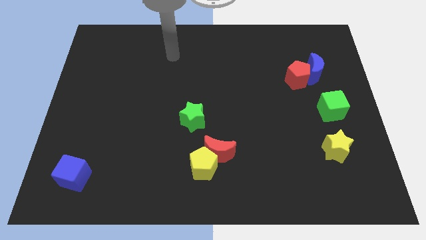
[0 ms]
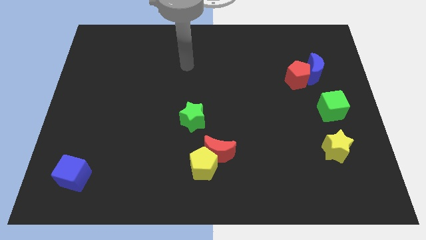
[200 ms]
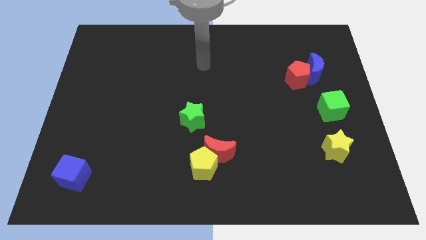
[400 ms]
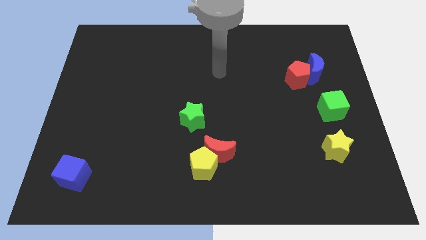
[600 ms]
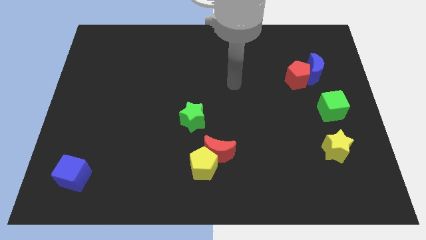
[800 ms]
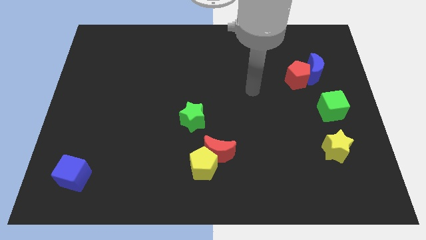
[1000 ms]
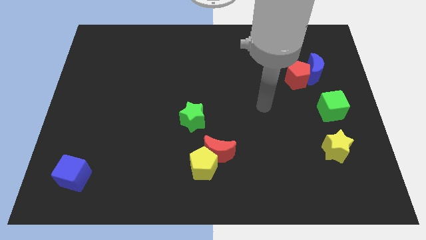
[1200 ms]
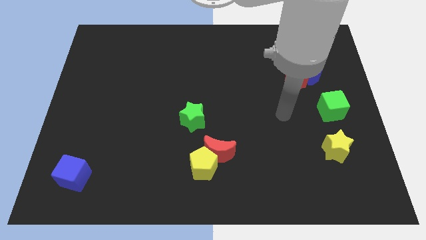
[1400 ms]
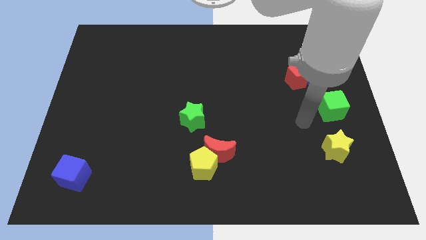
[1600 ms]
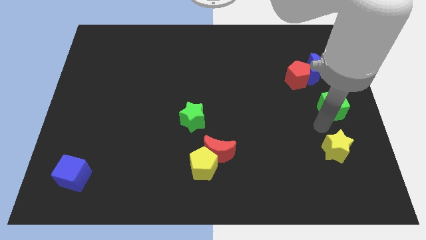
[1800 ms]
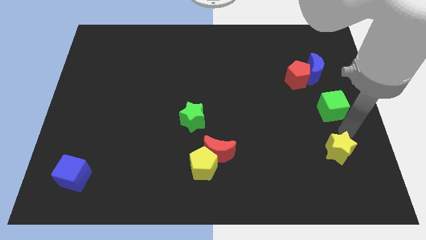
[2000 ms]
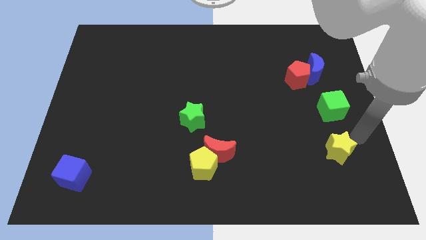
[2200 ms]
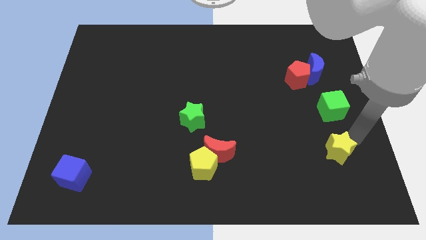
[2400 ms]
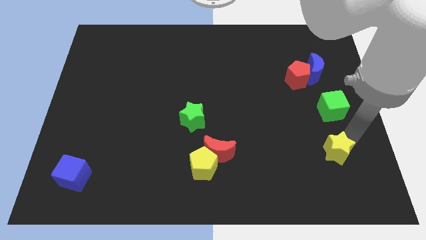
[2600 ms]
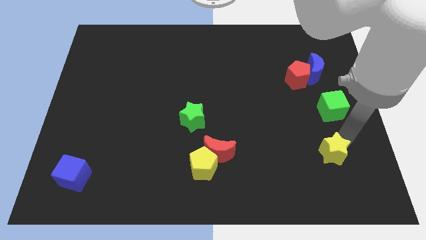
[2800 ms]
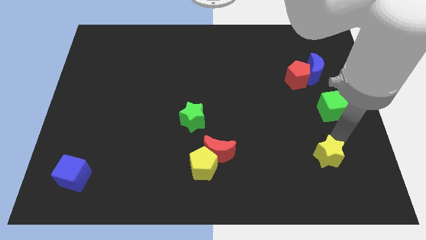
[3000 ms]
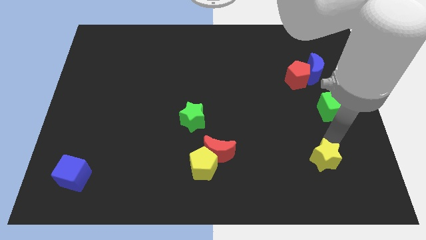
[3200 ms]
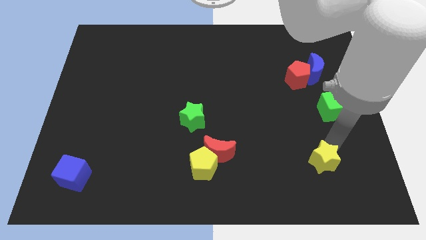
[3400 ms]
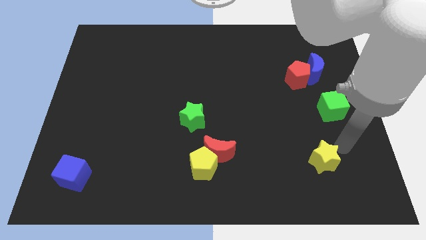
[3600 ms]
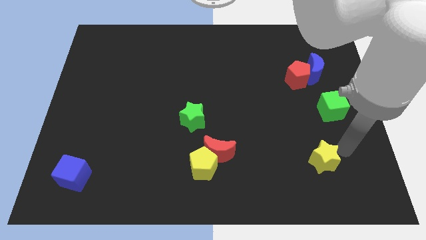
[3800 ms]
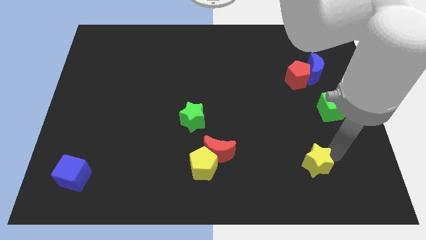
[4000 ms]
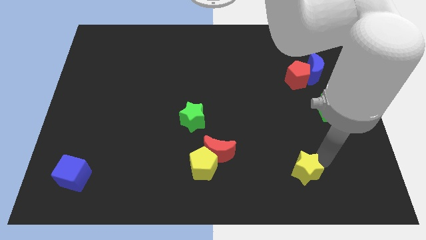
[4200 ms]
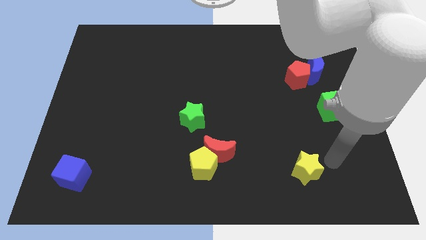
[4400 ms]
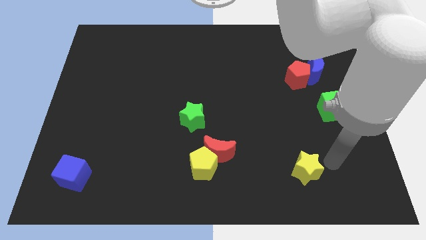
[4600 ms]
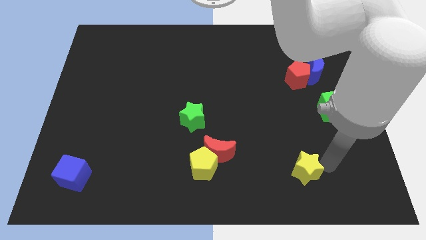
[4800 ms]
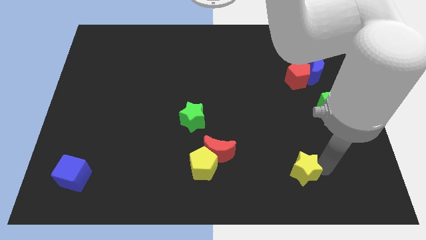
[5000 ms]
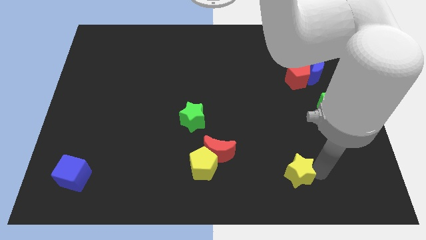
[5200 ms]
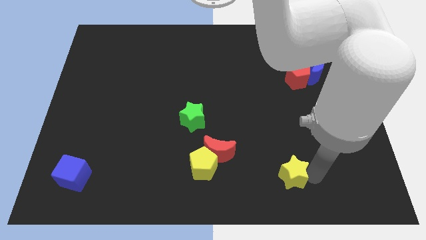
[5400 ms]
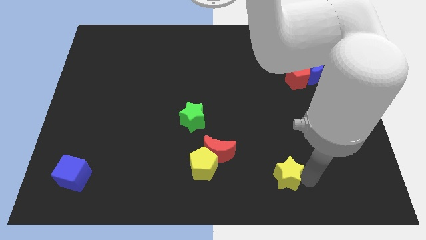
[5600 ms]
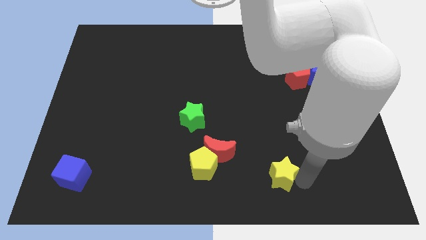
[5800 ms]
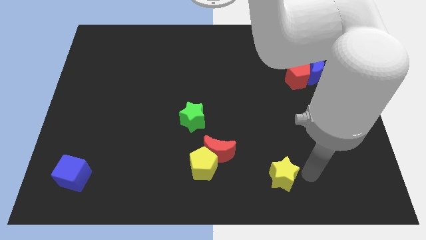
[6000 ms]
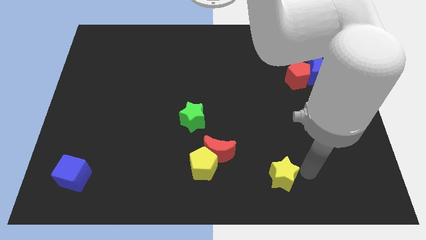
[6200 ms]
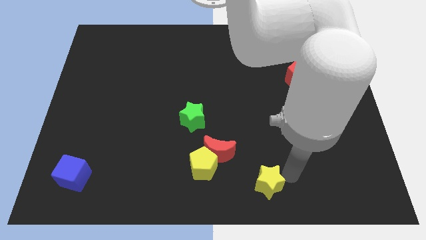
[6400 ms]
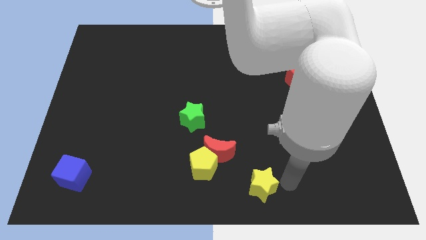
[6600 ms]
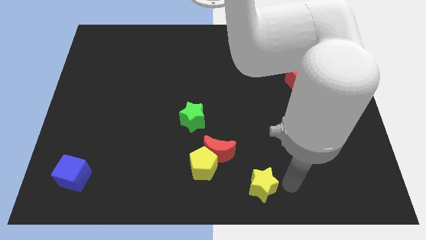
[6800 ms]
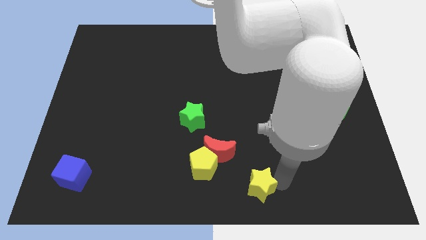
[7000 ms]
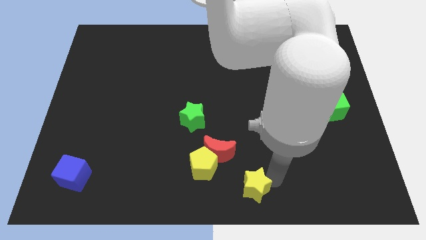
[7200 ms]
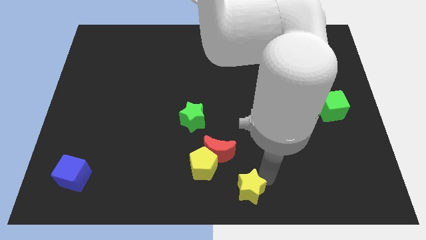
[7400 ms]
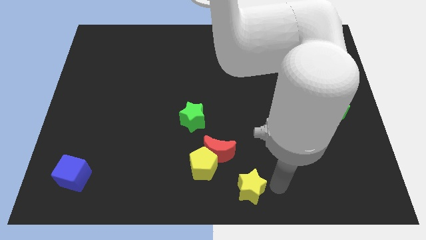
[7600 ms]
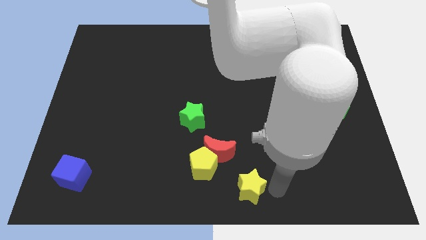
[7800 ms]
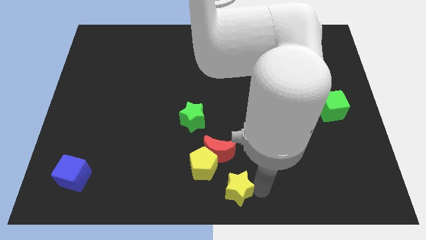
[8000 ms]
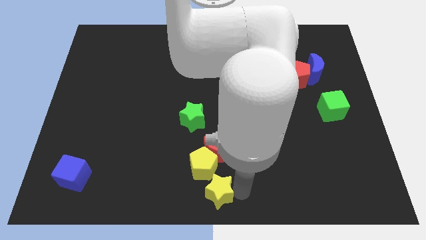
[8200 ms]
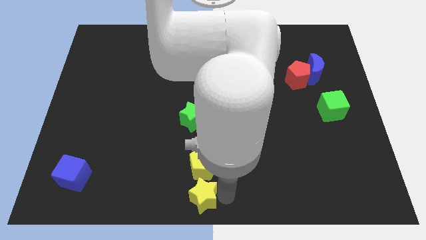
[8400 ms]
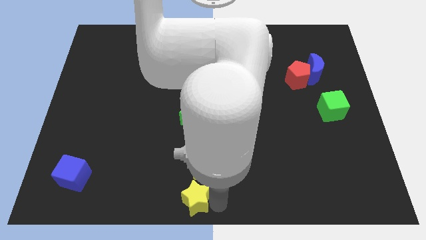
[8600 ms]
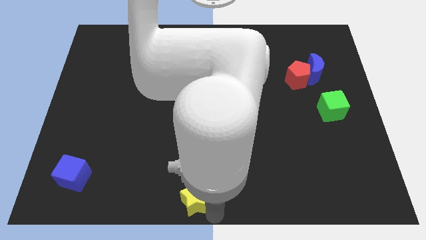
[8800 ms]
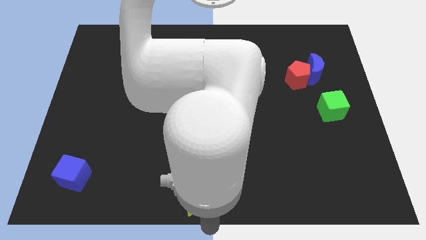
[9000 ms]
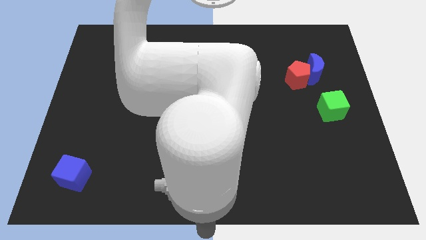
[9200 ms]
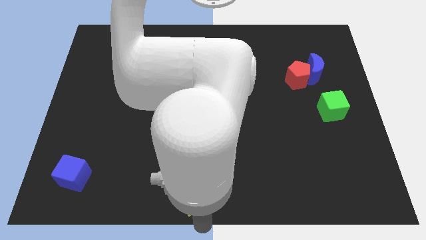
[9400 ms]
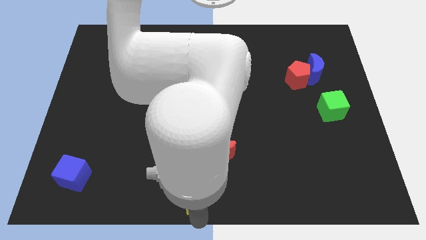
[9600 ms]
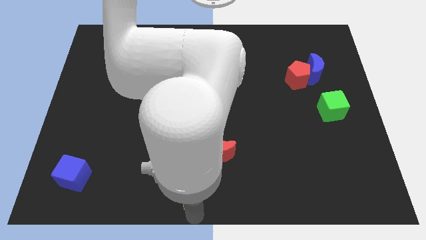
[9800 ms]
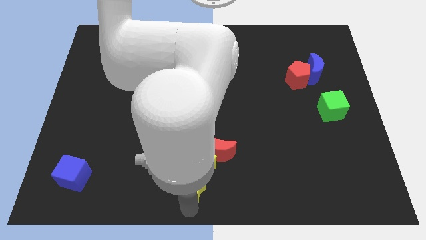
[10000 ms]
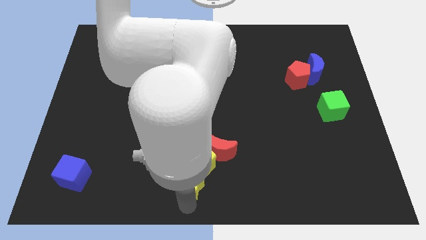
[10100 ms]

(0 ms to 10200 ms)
put the yellow star to the bottom of the green star

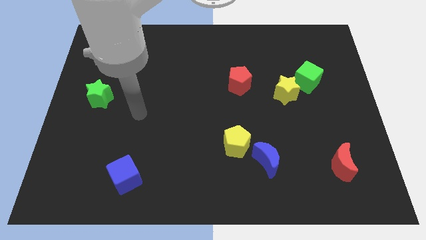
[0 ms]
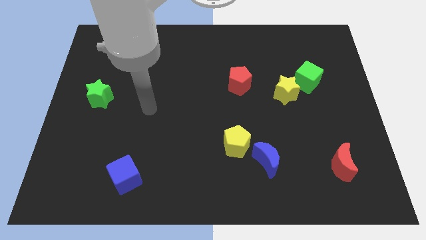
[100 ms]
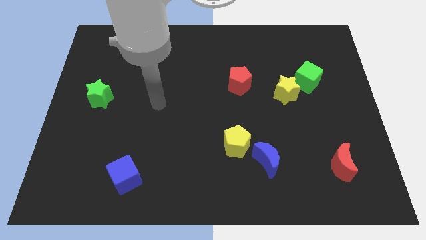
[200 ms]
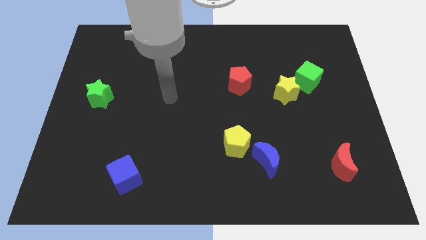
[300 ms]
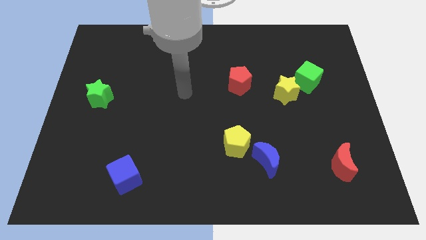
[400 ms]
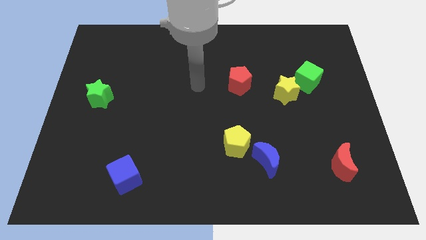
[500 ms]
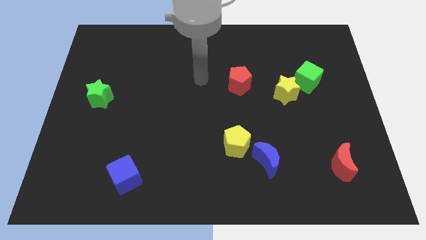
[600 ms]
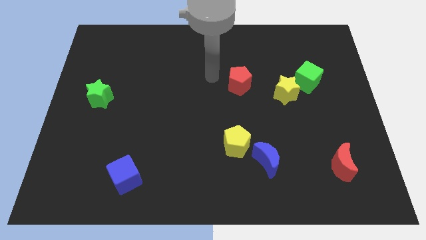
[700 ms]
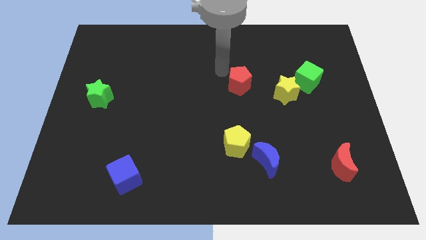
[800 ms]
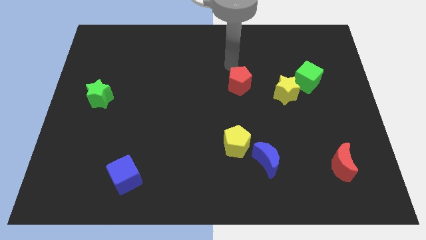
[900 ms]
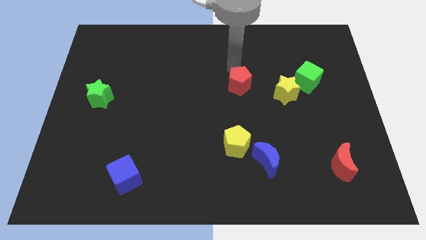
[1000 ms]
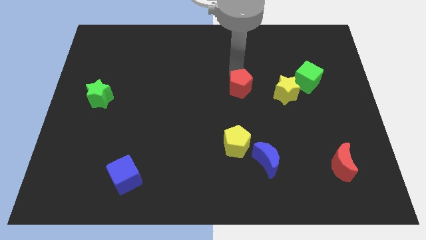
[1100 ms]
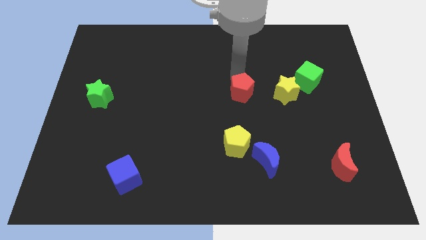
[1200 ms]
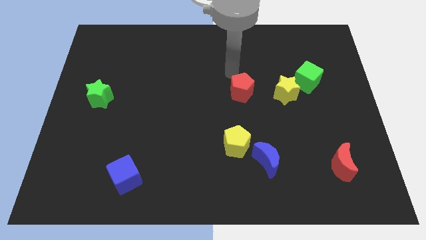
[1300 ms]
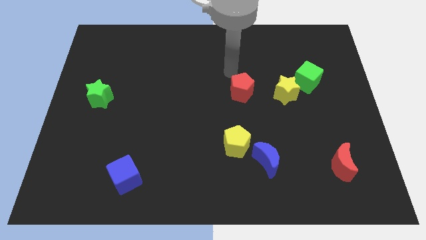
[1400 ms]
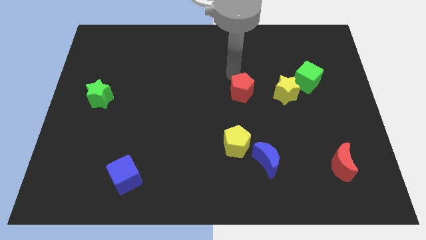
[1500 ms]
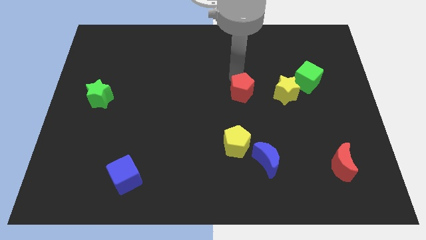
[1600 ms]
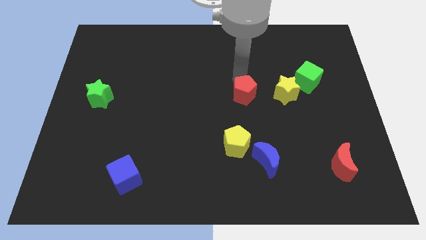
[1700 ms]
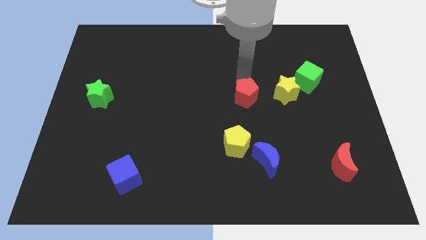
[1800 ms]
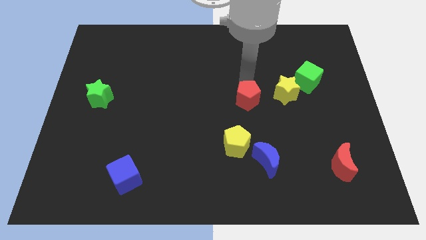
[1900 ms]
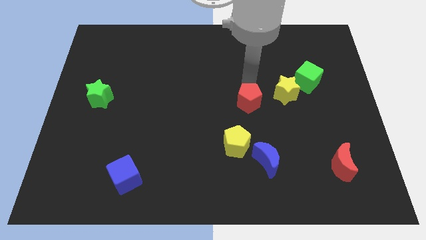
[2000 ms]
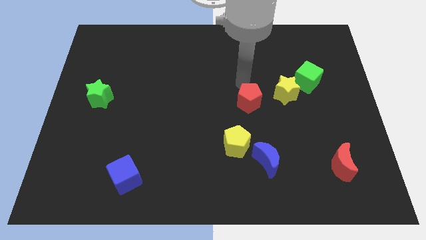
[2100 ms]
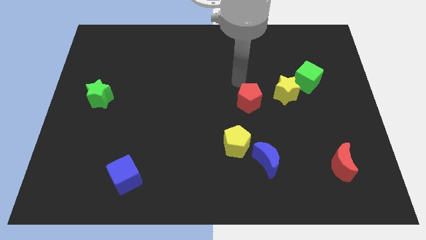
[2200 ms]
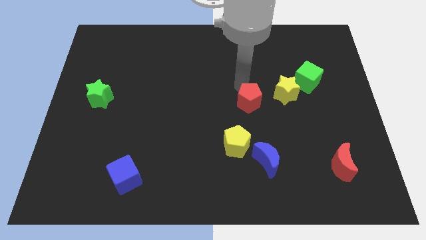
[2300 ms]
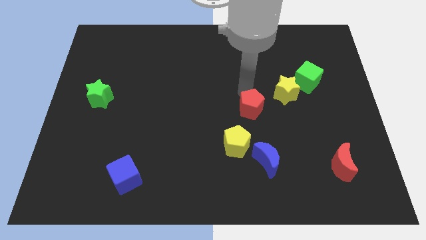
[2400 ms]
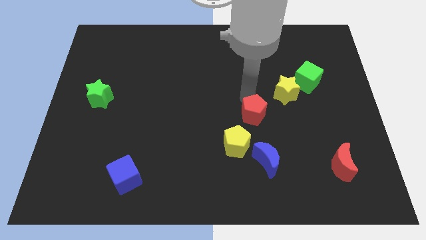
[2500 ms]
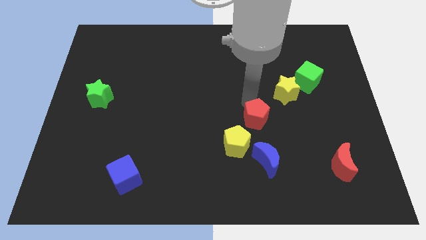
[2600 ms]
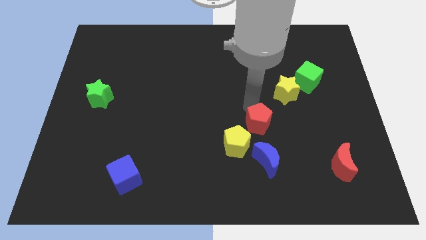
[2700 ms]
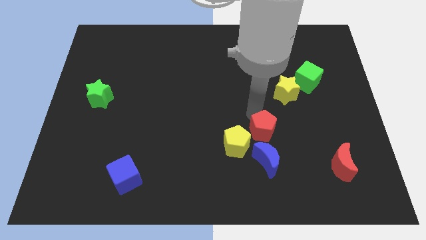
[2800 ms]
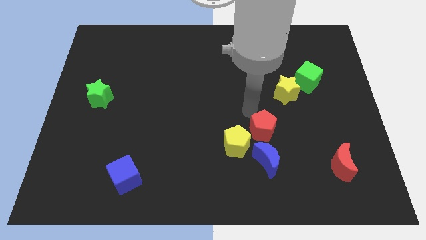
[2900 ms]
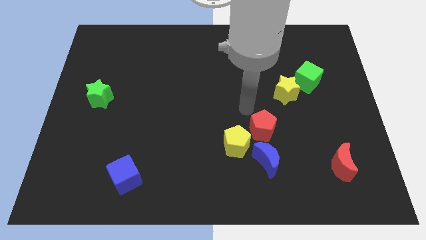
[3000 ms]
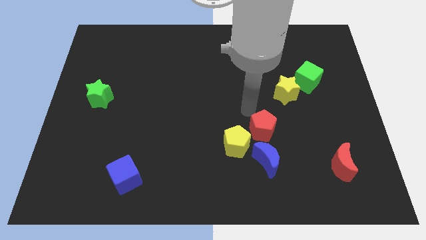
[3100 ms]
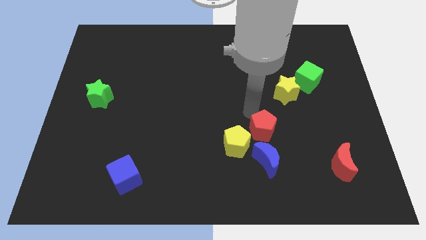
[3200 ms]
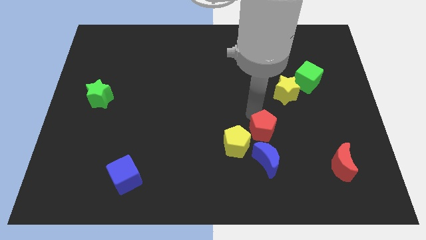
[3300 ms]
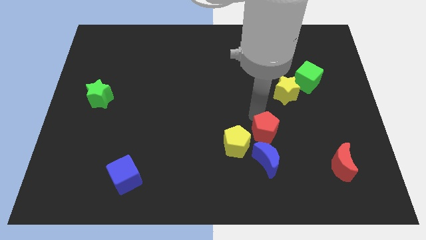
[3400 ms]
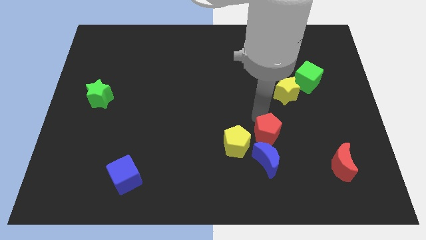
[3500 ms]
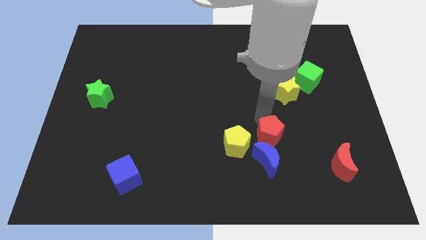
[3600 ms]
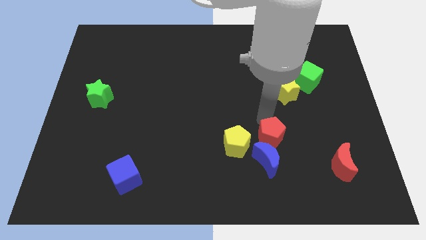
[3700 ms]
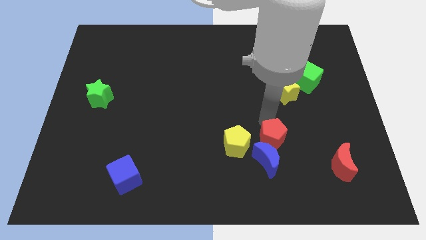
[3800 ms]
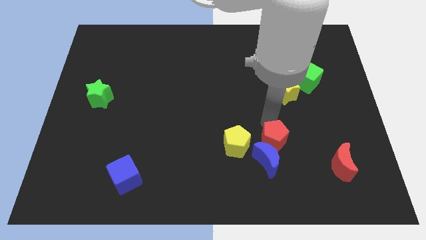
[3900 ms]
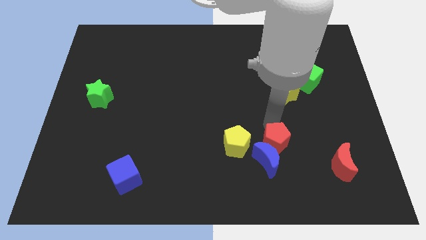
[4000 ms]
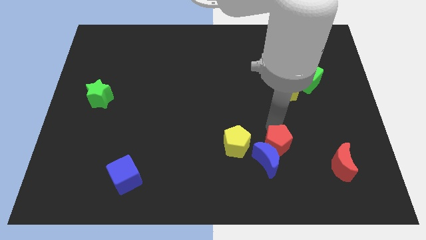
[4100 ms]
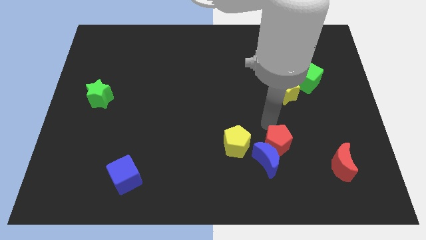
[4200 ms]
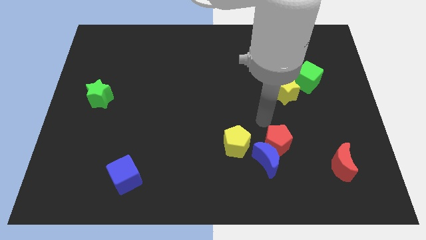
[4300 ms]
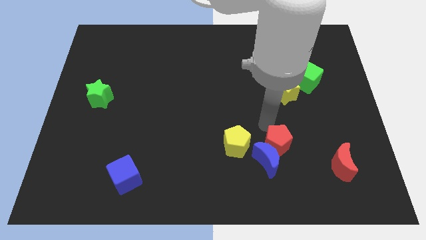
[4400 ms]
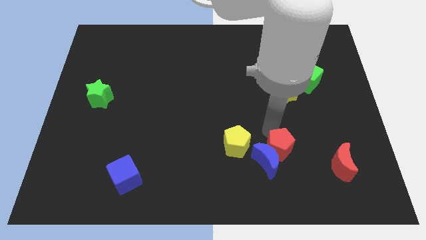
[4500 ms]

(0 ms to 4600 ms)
slide the red pentagon just left of the red moon
